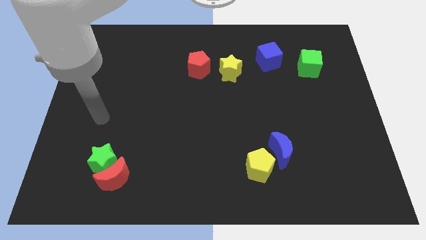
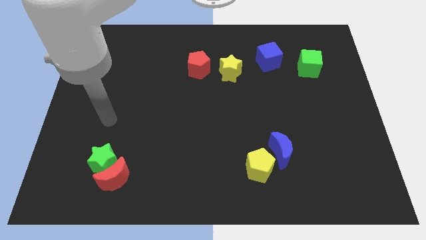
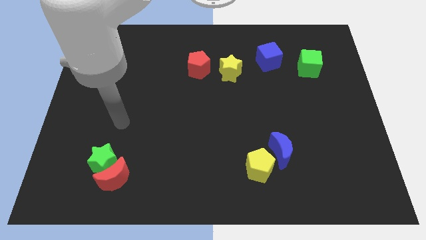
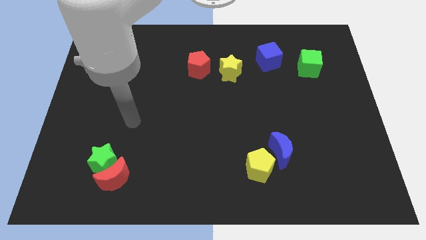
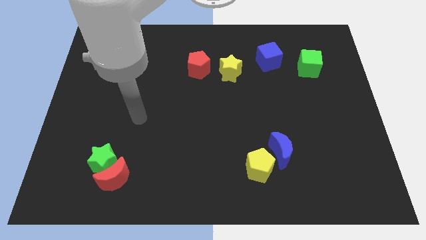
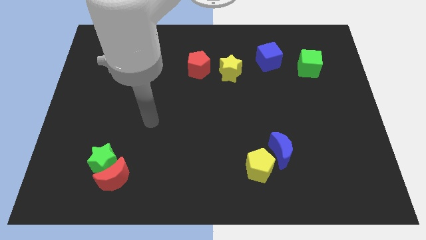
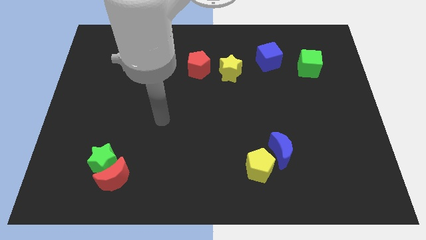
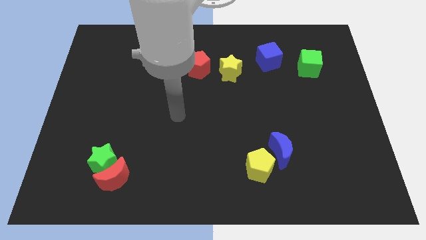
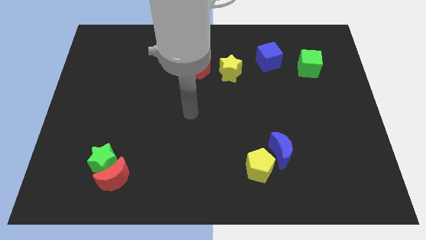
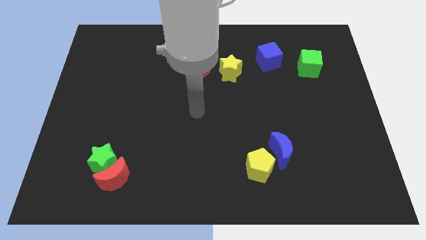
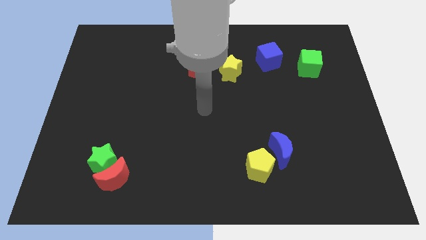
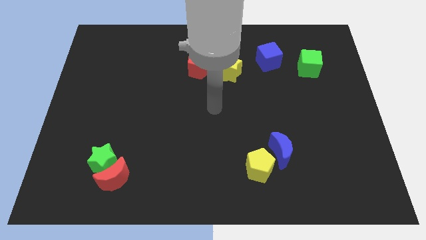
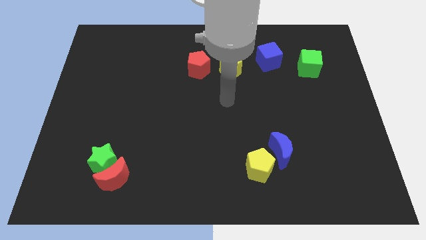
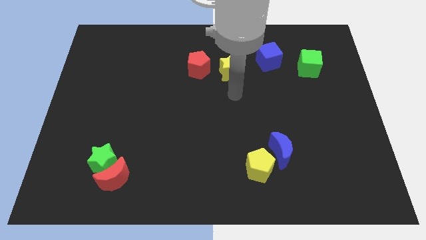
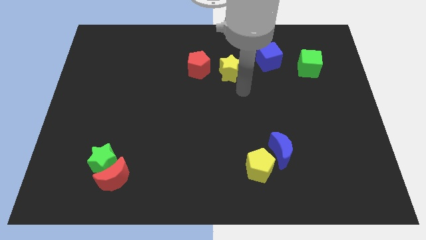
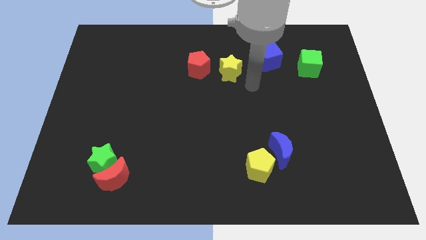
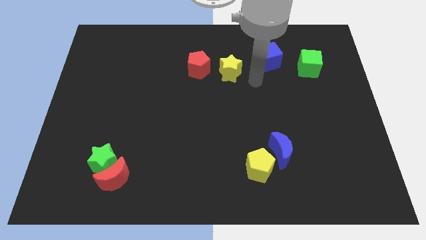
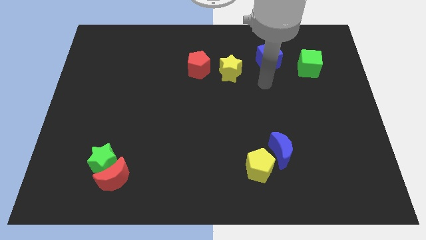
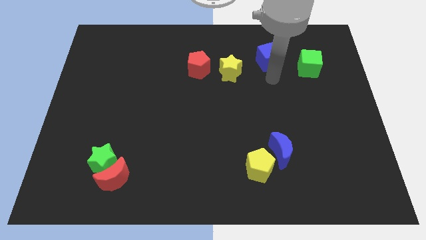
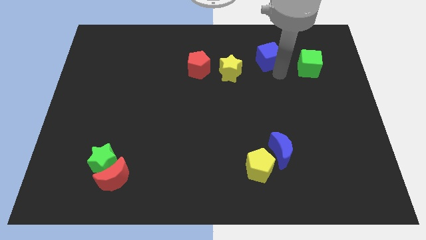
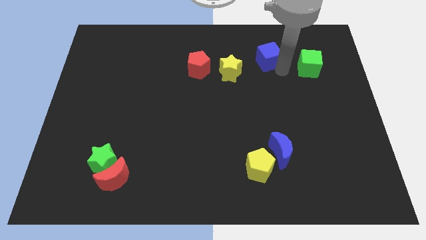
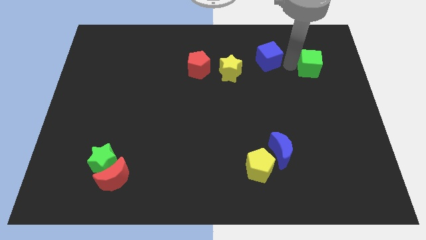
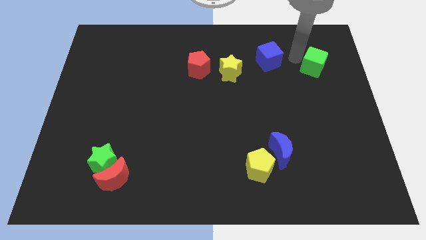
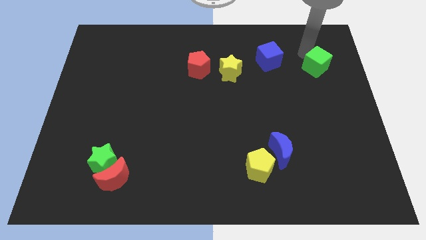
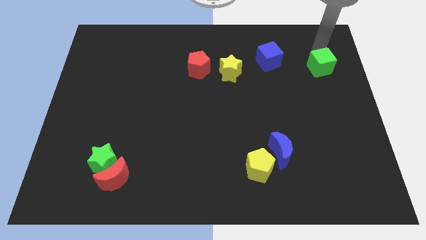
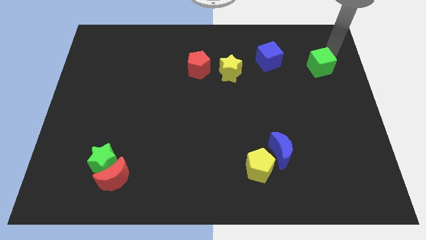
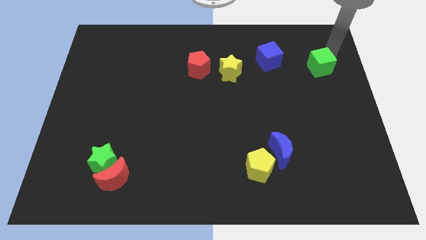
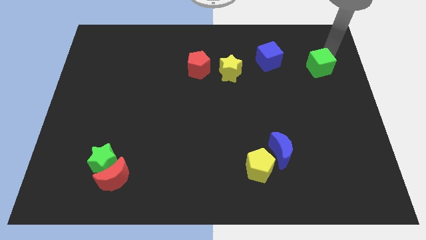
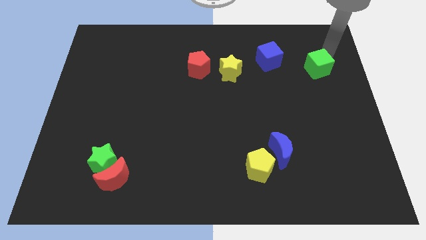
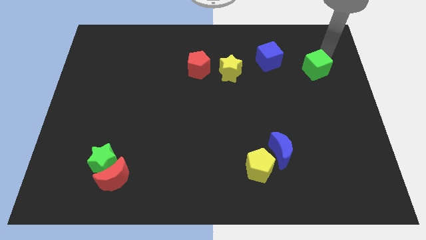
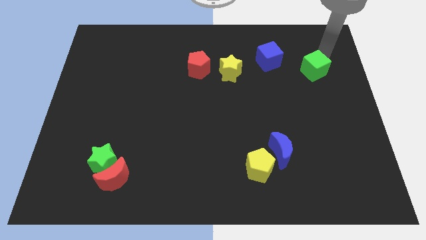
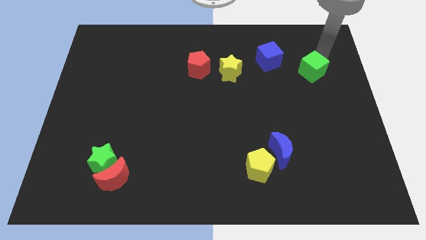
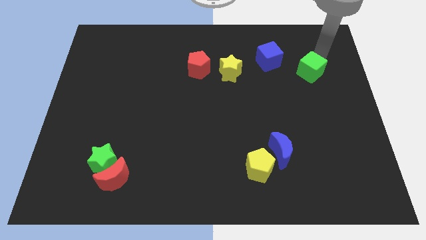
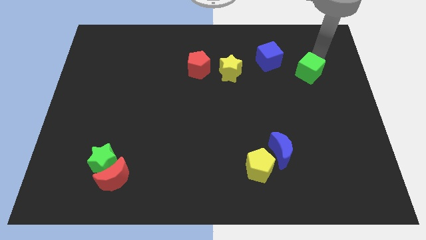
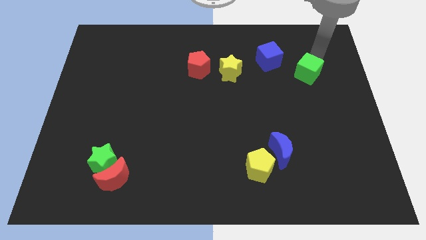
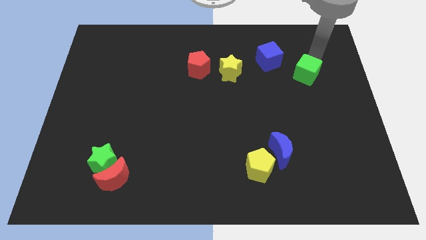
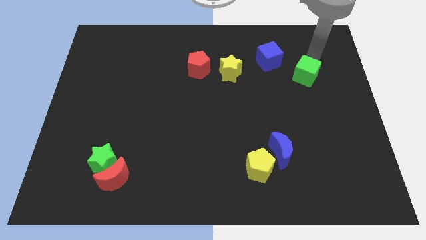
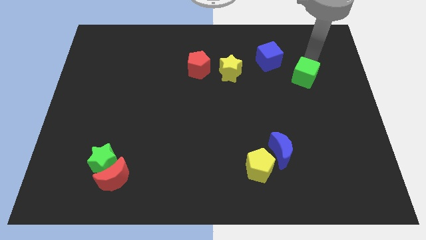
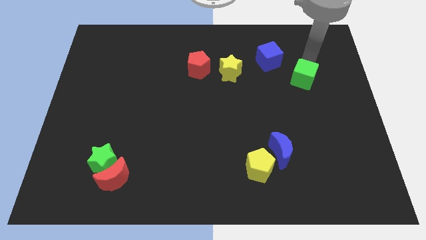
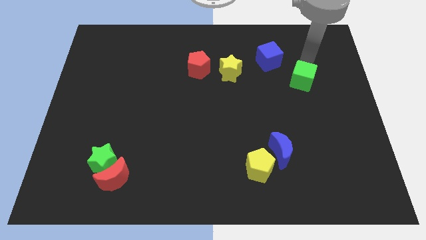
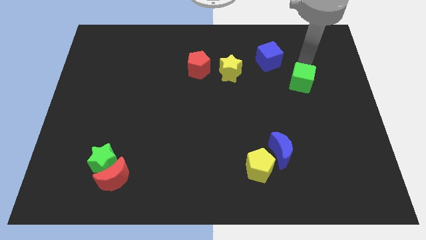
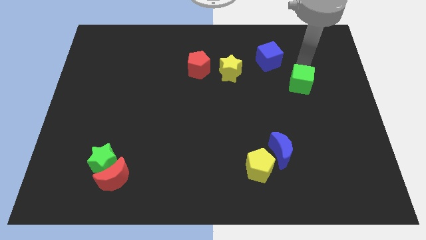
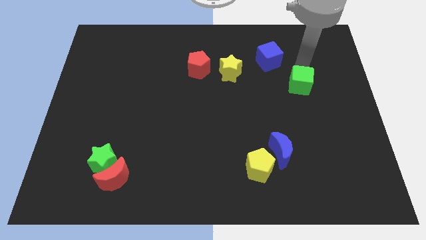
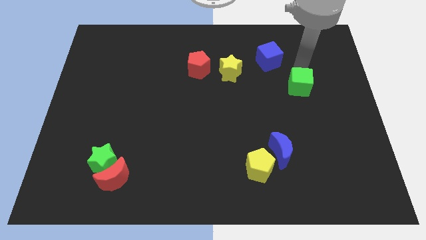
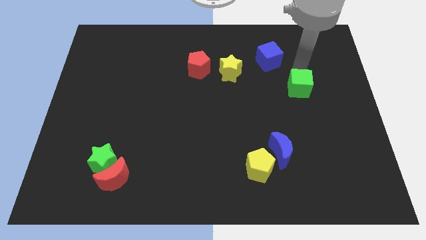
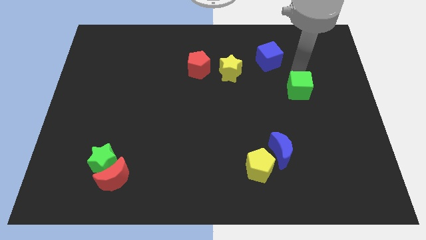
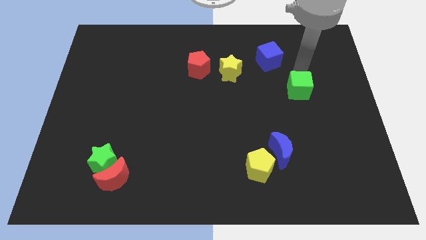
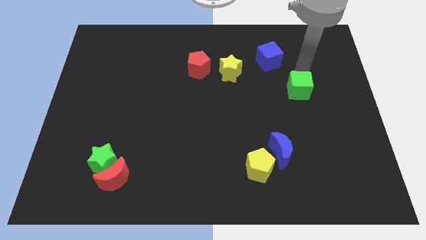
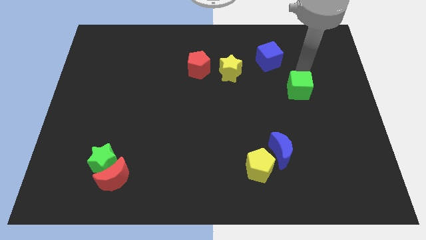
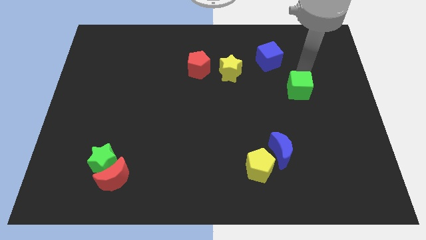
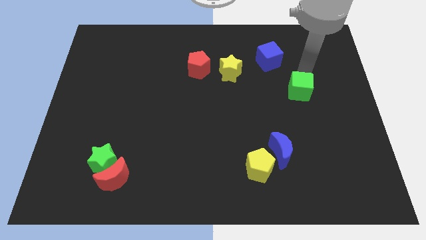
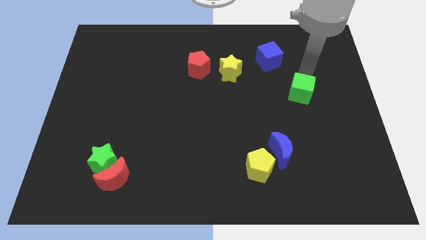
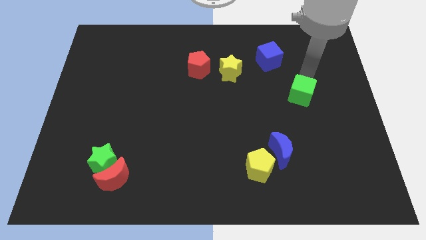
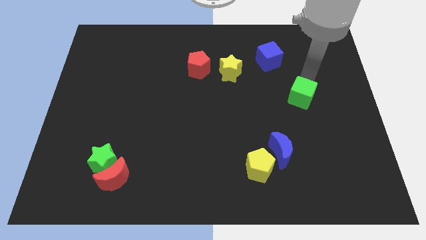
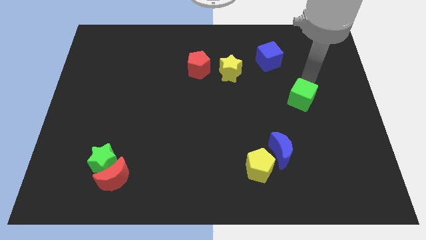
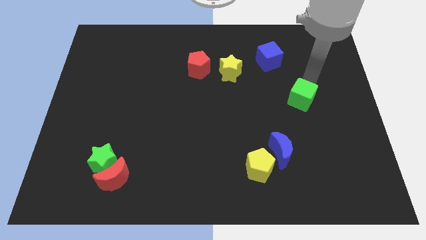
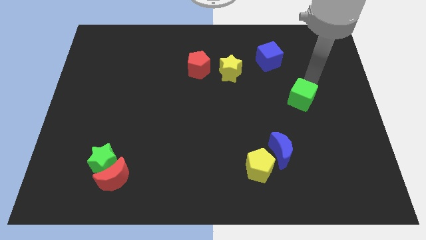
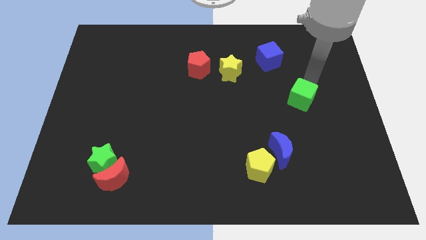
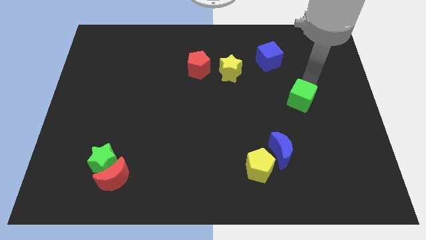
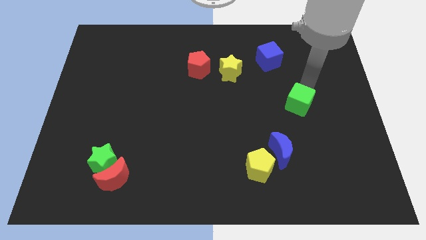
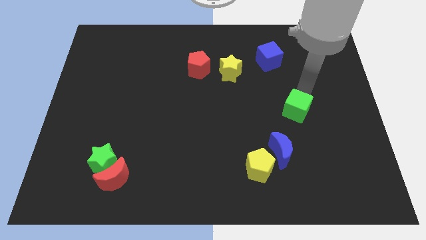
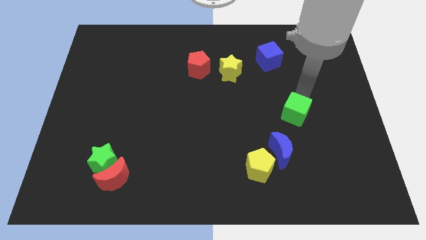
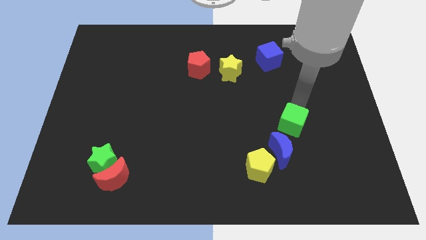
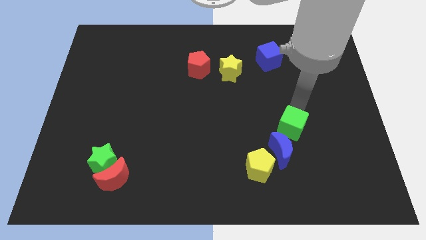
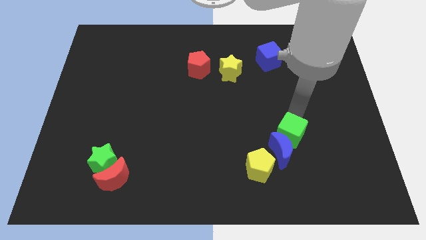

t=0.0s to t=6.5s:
put the green cube to the top right side of the yellow pentagon
